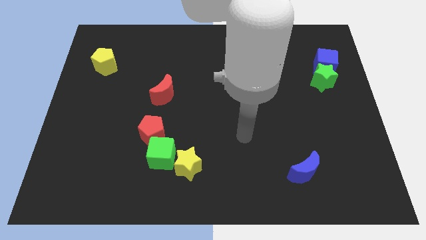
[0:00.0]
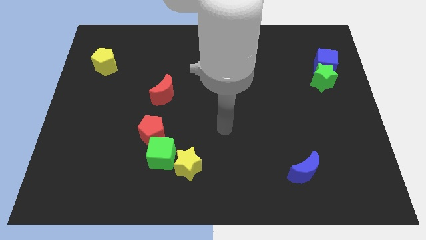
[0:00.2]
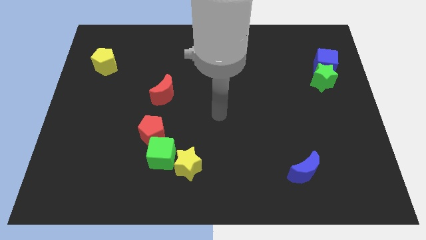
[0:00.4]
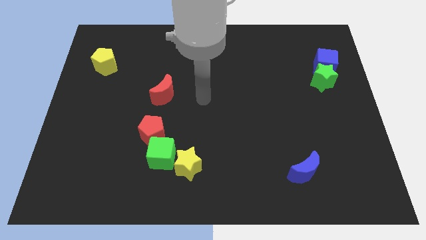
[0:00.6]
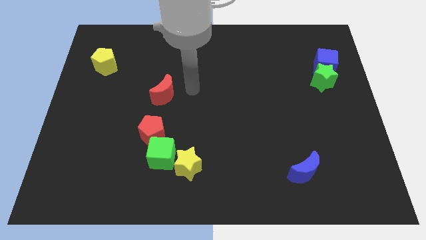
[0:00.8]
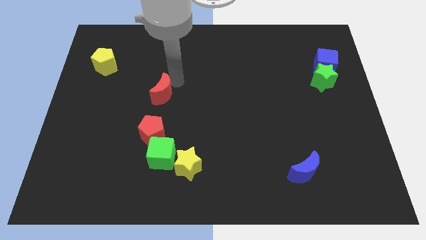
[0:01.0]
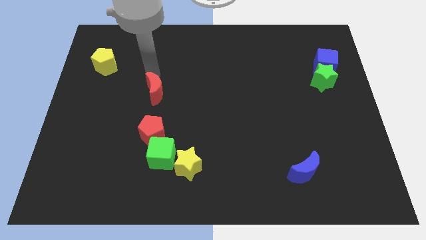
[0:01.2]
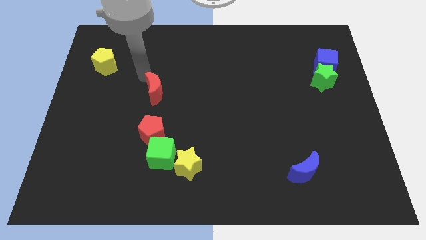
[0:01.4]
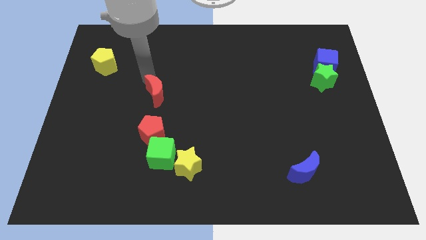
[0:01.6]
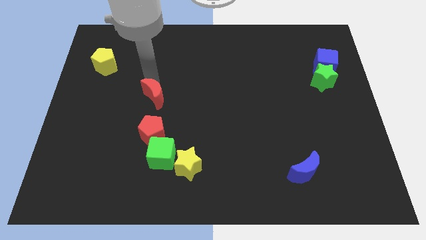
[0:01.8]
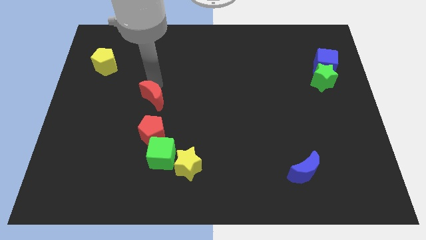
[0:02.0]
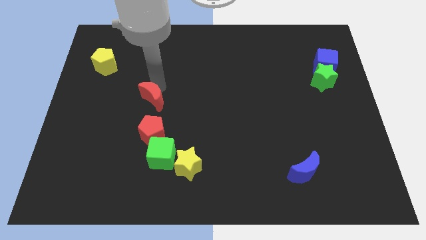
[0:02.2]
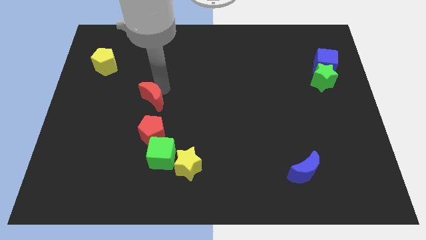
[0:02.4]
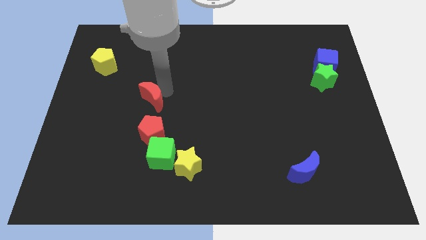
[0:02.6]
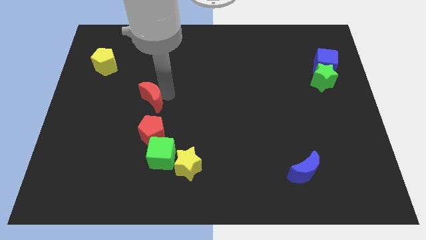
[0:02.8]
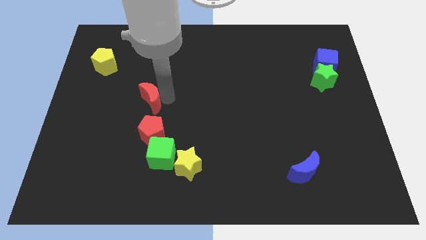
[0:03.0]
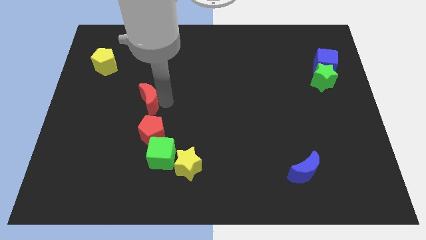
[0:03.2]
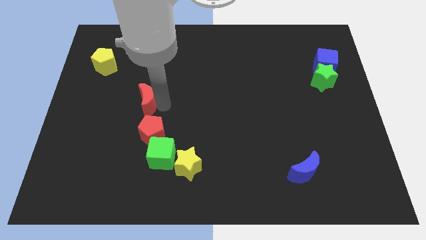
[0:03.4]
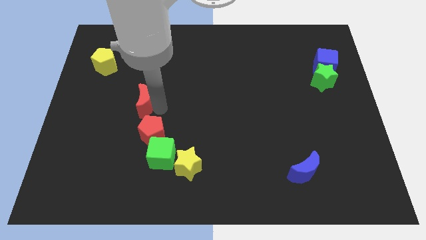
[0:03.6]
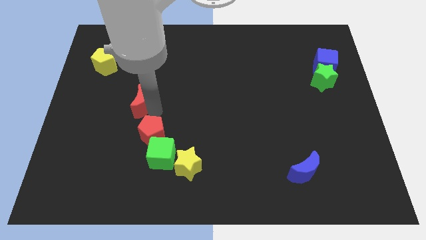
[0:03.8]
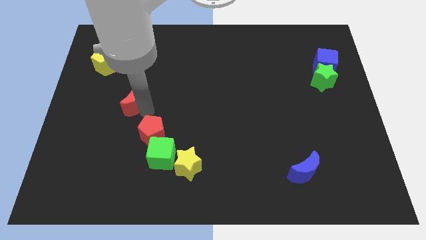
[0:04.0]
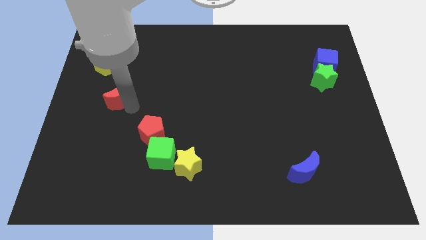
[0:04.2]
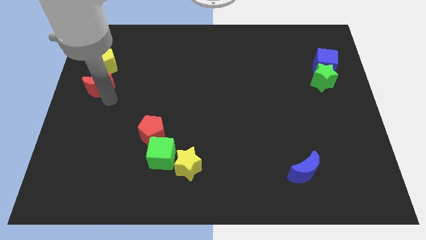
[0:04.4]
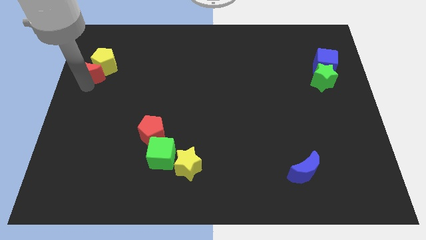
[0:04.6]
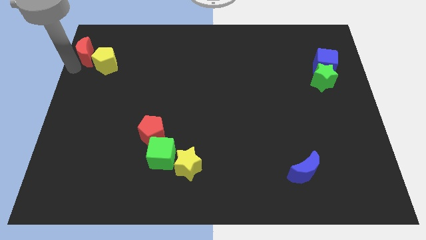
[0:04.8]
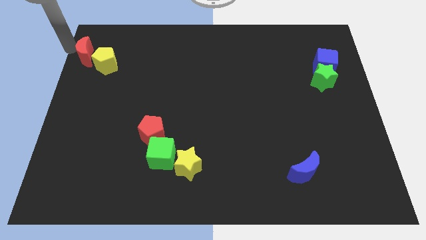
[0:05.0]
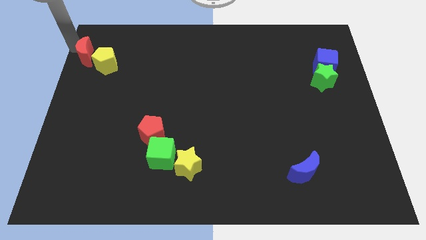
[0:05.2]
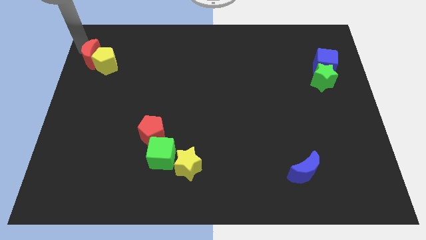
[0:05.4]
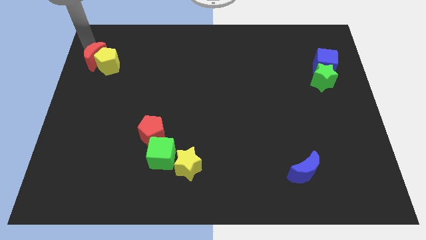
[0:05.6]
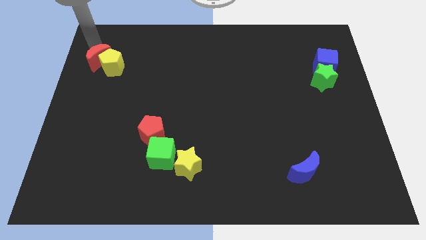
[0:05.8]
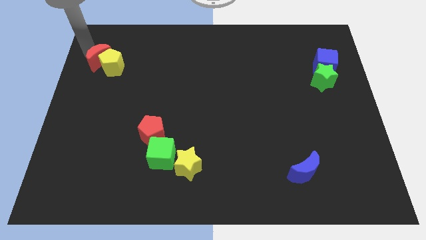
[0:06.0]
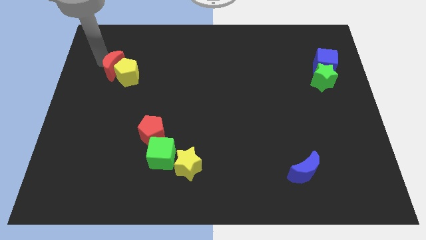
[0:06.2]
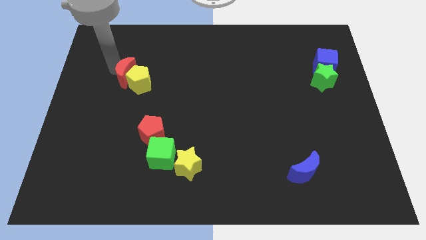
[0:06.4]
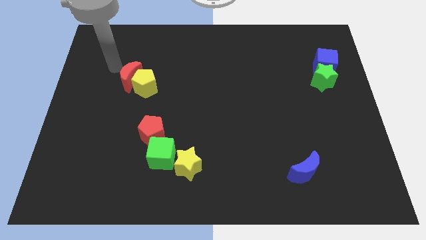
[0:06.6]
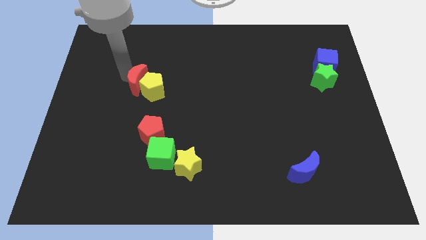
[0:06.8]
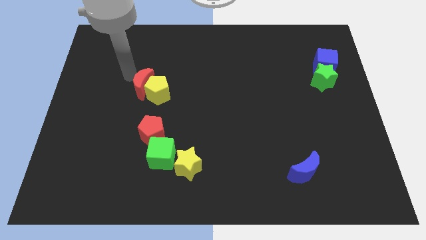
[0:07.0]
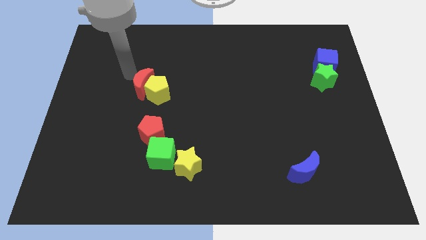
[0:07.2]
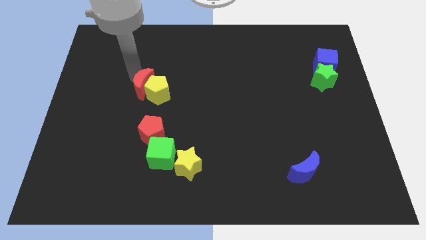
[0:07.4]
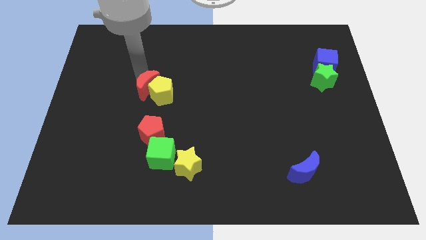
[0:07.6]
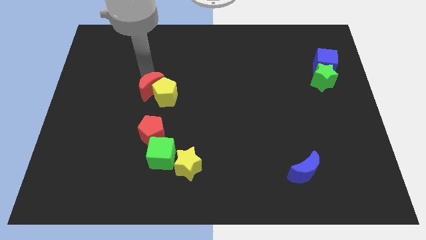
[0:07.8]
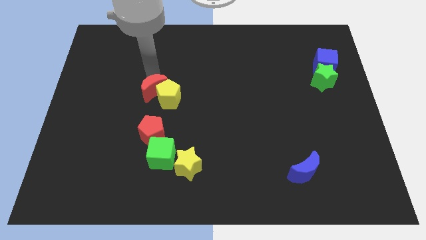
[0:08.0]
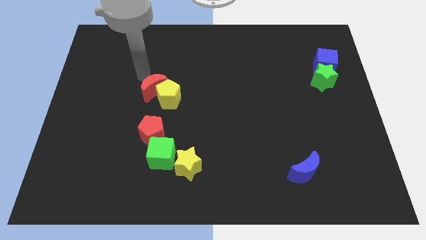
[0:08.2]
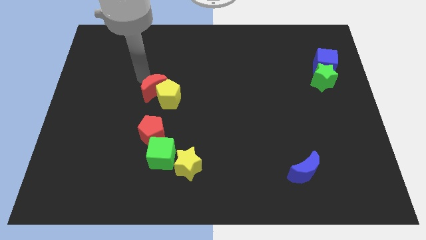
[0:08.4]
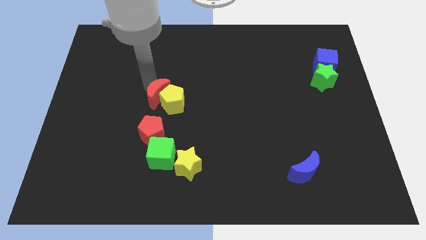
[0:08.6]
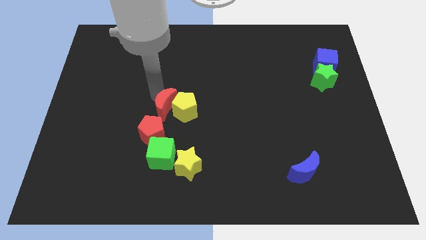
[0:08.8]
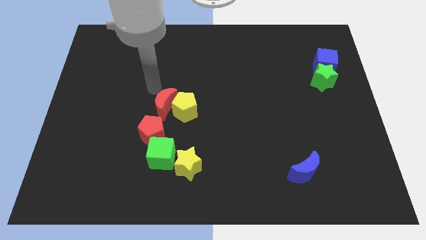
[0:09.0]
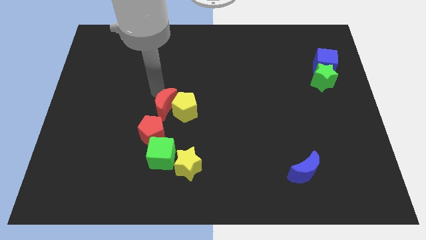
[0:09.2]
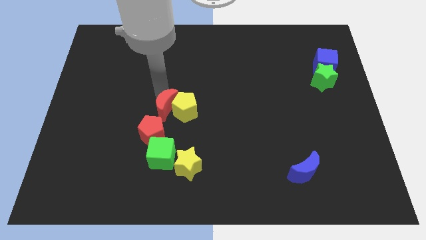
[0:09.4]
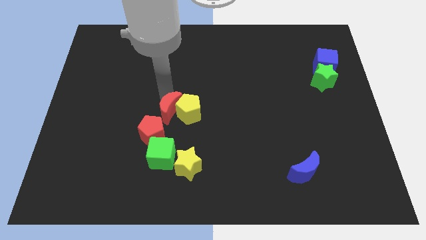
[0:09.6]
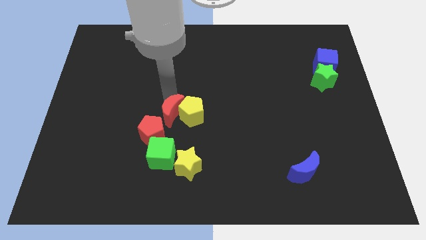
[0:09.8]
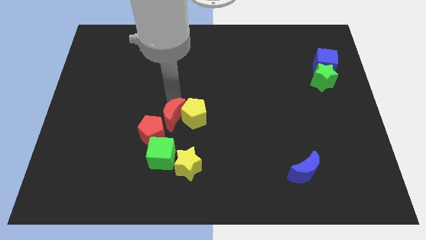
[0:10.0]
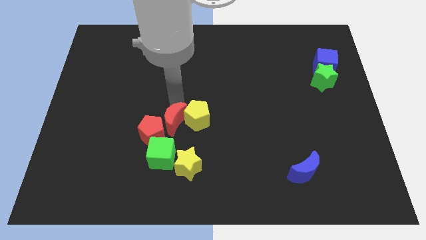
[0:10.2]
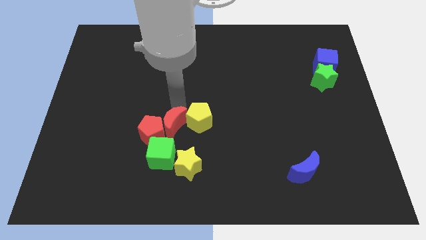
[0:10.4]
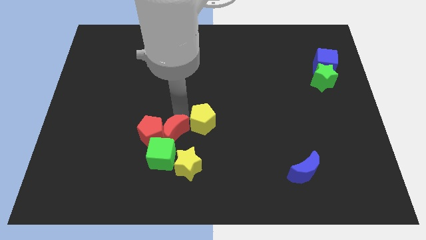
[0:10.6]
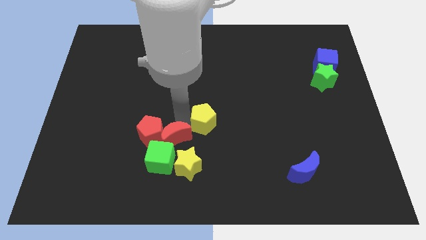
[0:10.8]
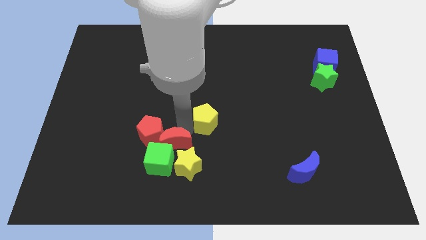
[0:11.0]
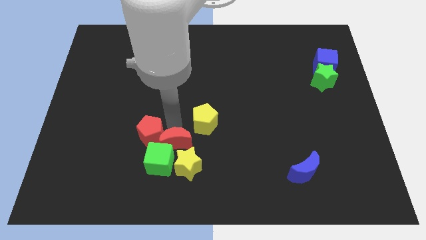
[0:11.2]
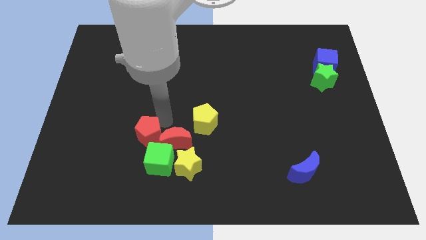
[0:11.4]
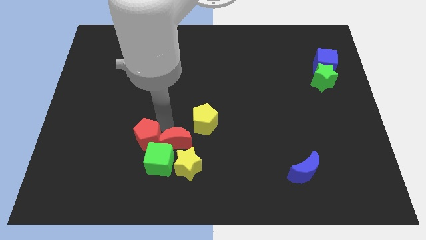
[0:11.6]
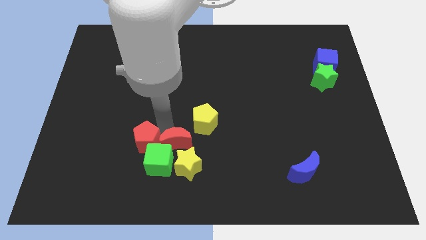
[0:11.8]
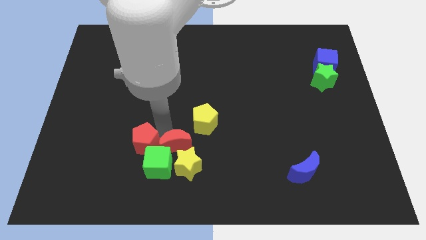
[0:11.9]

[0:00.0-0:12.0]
slide the red moon close to the yellow star
